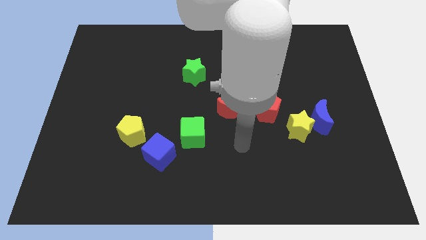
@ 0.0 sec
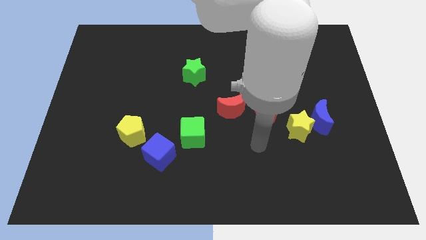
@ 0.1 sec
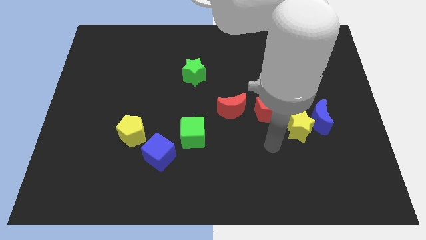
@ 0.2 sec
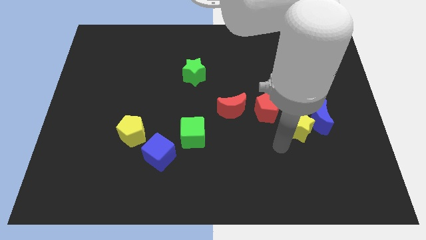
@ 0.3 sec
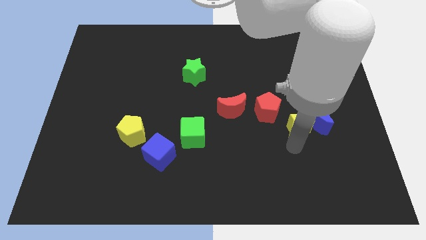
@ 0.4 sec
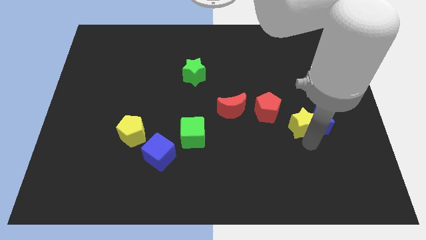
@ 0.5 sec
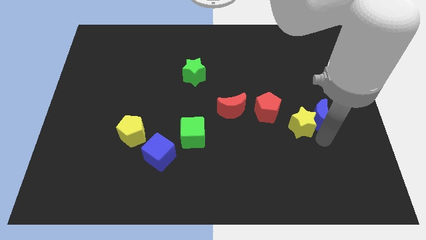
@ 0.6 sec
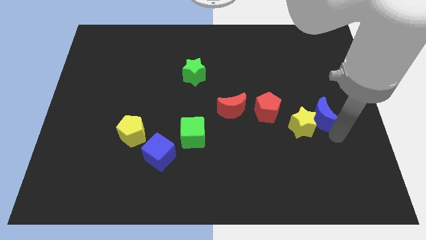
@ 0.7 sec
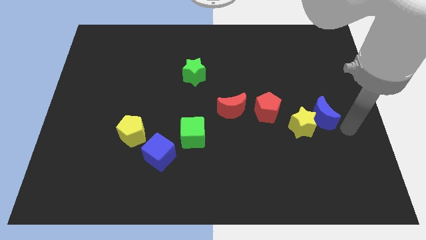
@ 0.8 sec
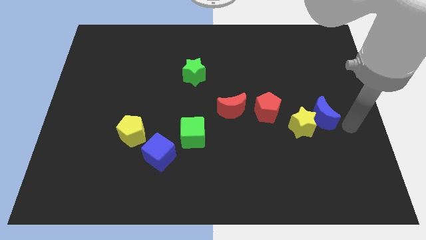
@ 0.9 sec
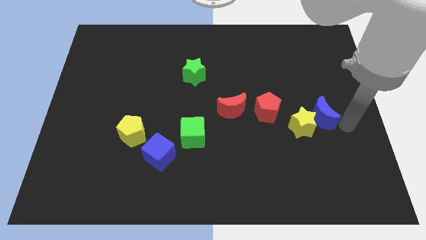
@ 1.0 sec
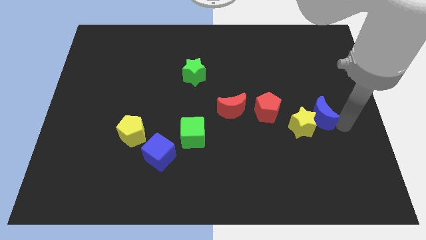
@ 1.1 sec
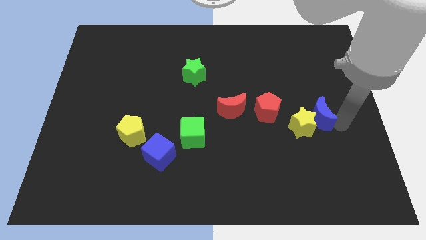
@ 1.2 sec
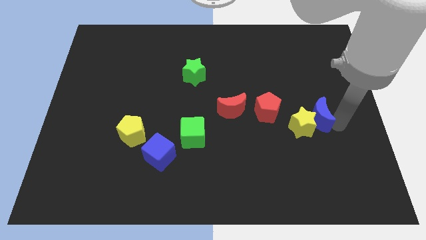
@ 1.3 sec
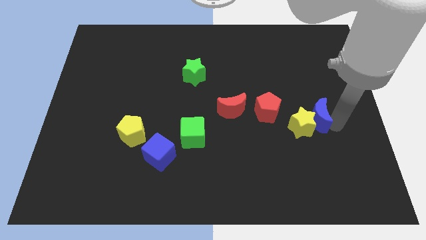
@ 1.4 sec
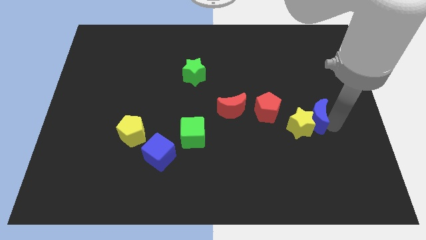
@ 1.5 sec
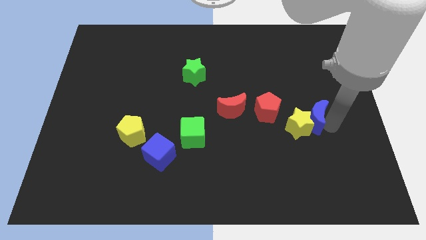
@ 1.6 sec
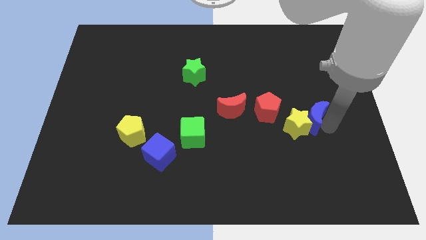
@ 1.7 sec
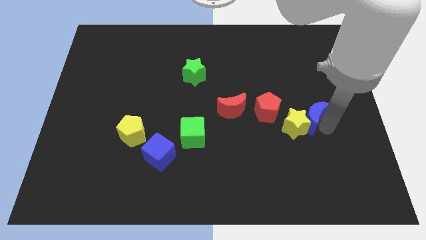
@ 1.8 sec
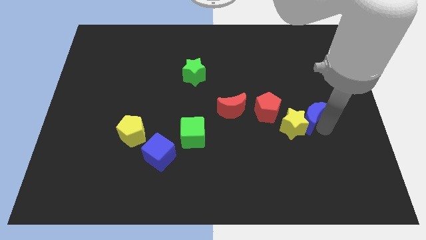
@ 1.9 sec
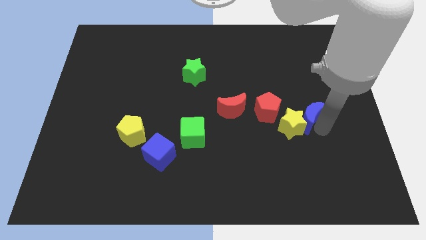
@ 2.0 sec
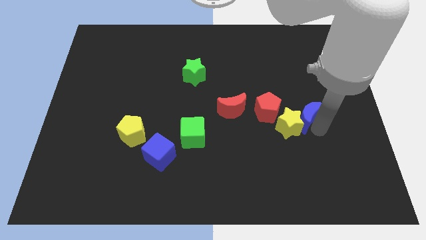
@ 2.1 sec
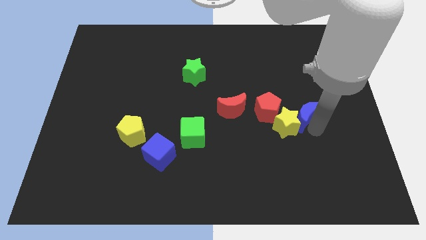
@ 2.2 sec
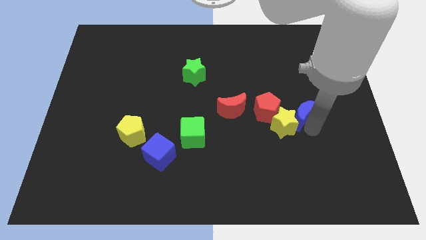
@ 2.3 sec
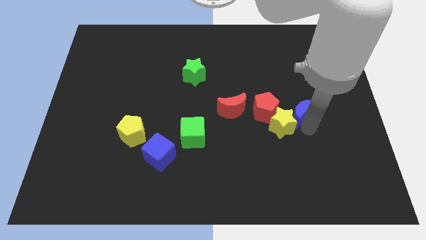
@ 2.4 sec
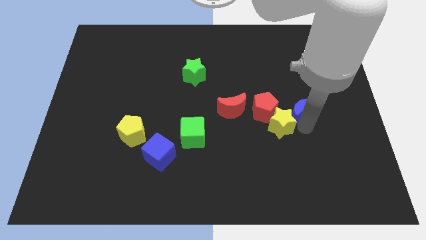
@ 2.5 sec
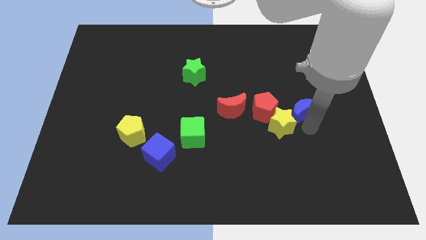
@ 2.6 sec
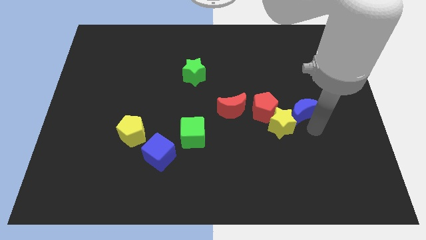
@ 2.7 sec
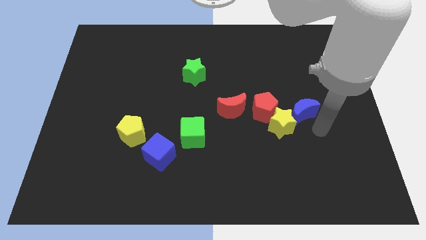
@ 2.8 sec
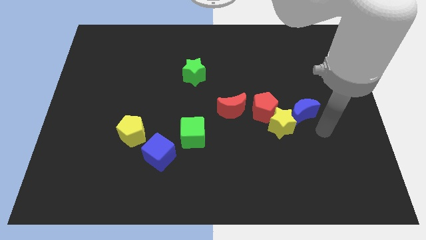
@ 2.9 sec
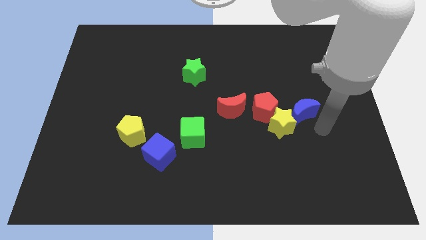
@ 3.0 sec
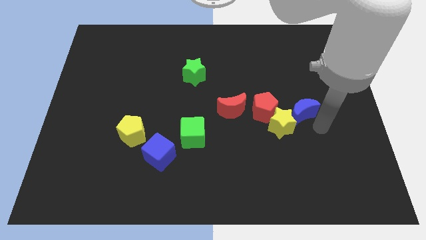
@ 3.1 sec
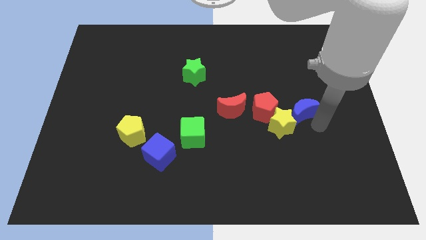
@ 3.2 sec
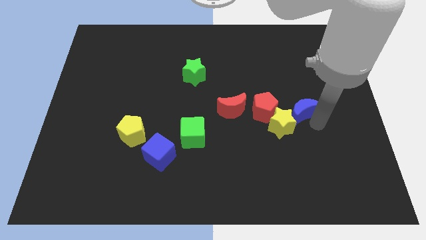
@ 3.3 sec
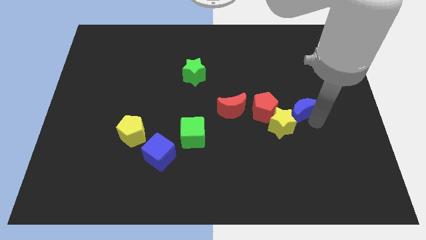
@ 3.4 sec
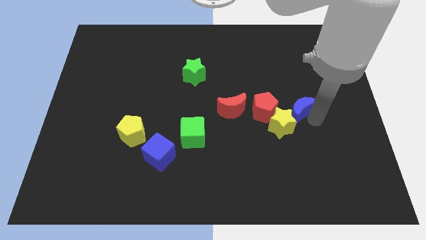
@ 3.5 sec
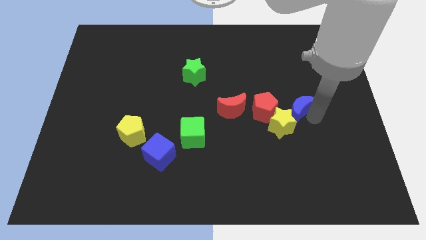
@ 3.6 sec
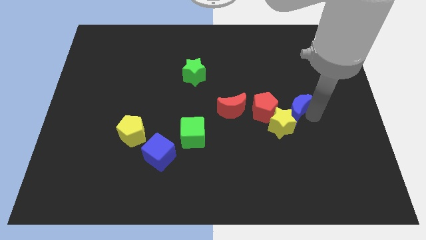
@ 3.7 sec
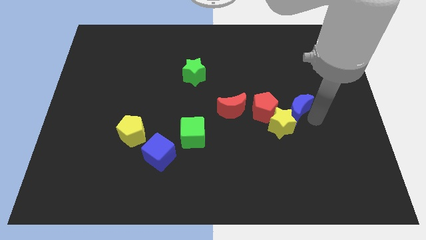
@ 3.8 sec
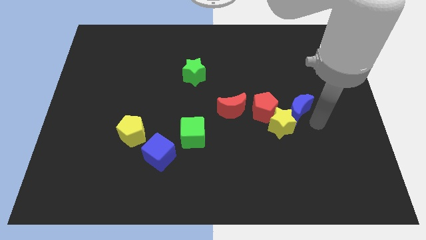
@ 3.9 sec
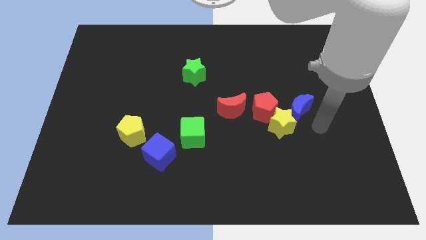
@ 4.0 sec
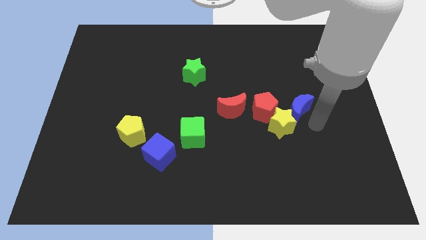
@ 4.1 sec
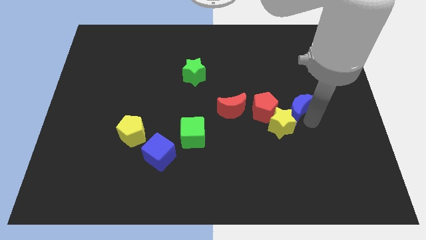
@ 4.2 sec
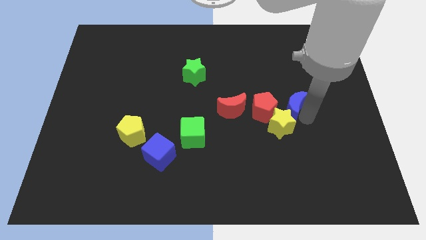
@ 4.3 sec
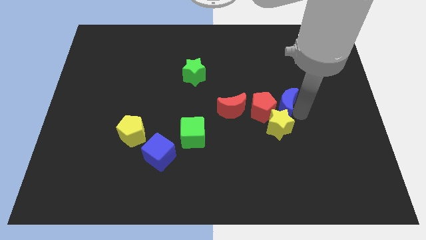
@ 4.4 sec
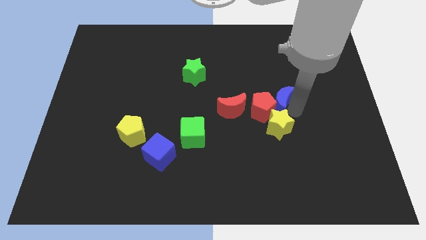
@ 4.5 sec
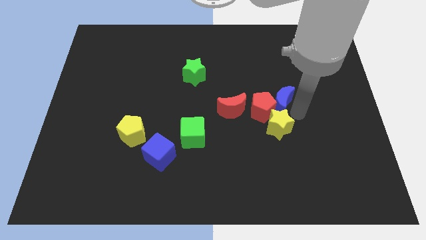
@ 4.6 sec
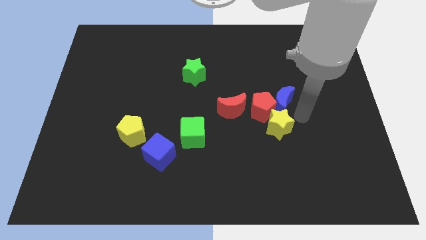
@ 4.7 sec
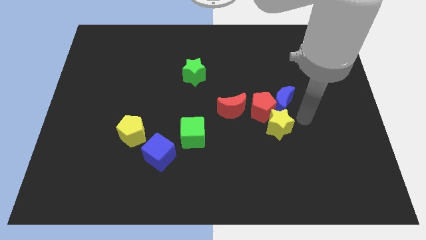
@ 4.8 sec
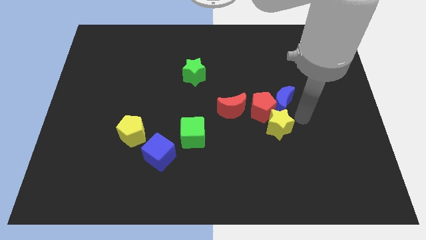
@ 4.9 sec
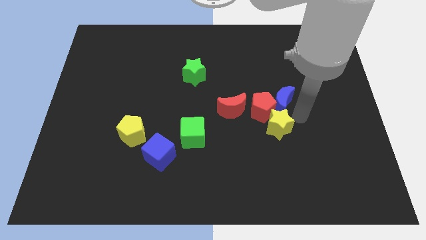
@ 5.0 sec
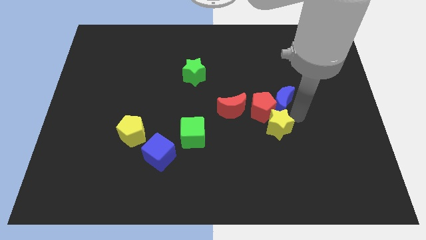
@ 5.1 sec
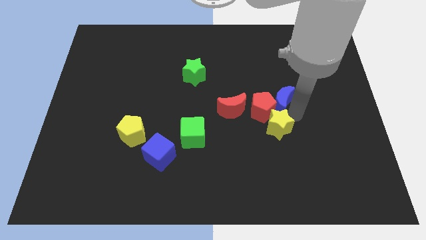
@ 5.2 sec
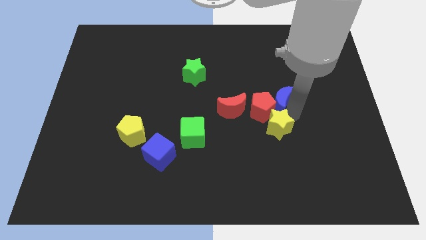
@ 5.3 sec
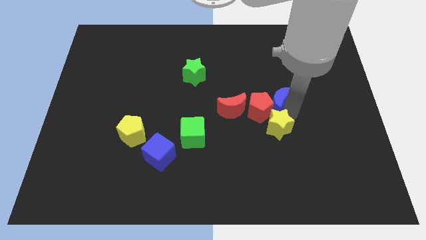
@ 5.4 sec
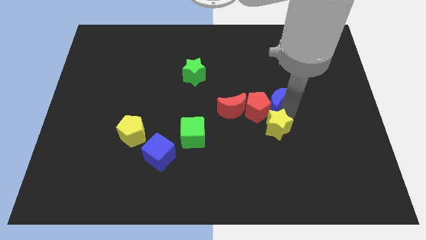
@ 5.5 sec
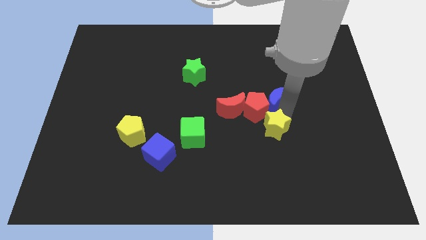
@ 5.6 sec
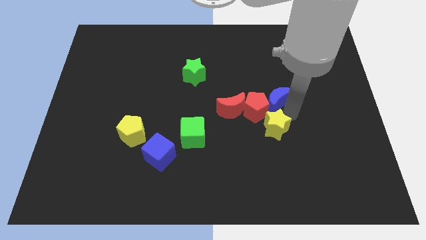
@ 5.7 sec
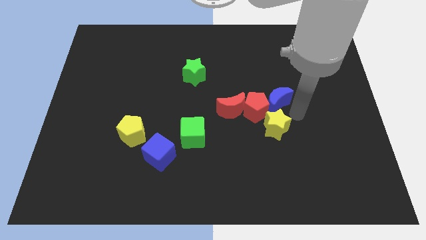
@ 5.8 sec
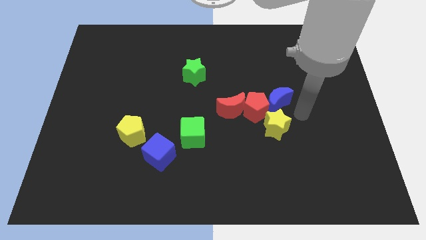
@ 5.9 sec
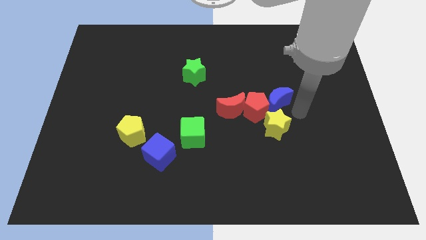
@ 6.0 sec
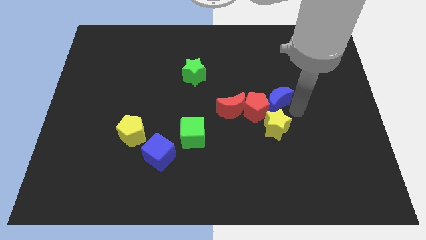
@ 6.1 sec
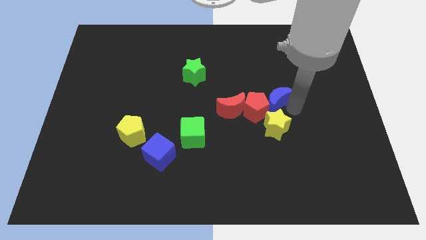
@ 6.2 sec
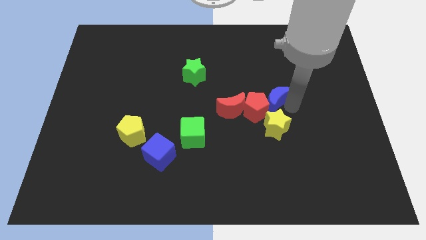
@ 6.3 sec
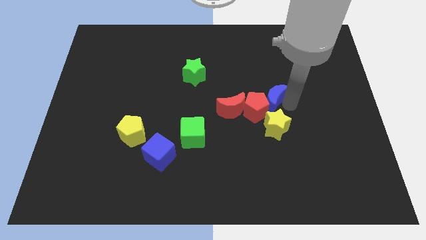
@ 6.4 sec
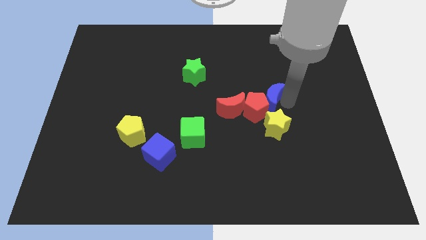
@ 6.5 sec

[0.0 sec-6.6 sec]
move the blue moon to the top right of the red moon
